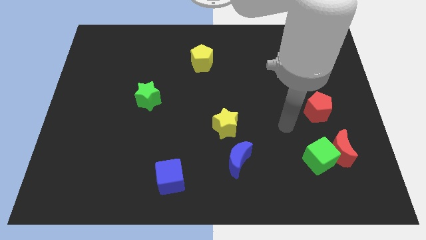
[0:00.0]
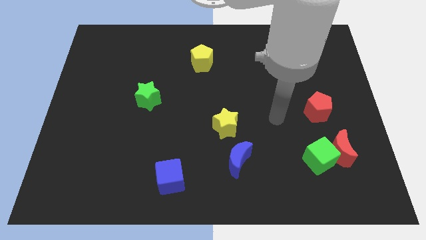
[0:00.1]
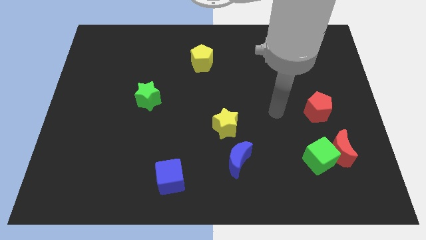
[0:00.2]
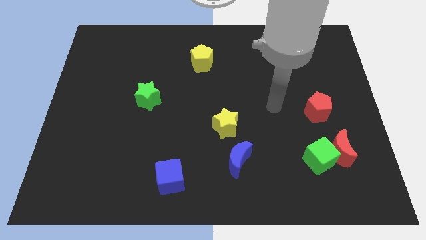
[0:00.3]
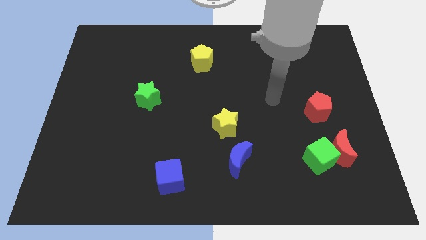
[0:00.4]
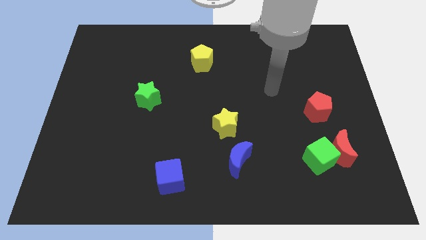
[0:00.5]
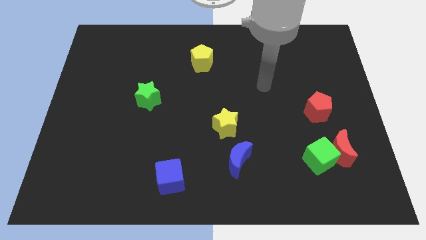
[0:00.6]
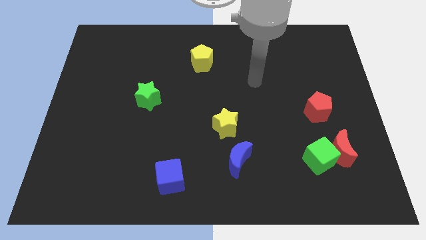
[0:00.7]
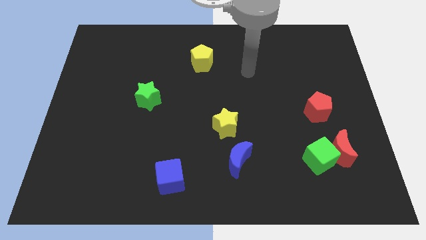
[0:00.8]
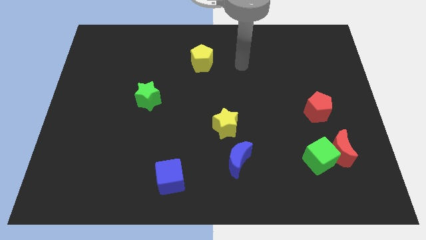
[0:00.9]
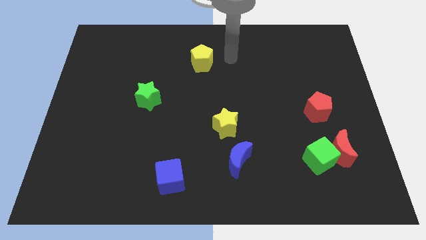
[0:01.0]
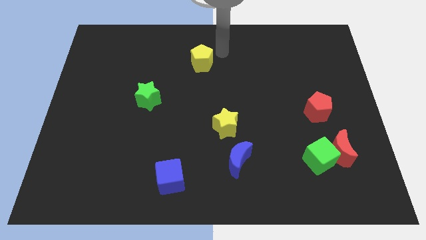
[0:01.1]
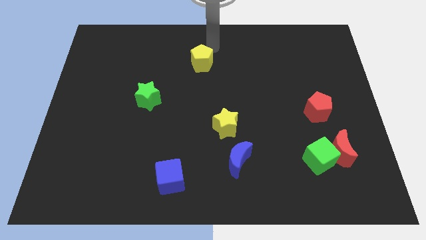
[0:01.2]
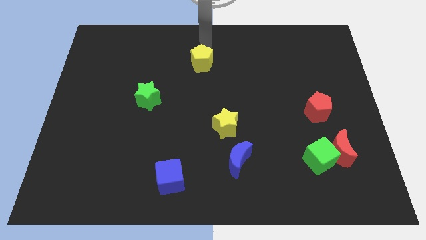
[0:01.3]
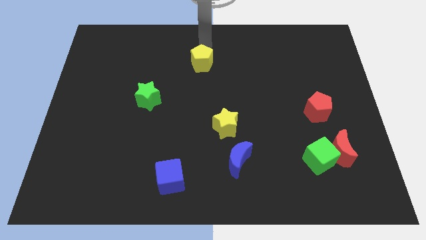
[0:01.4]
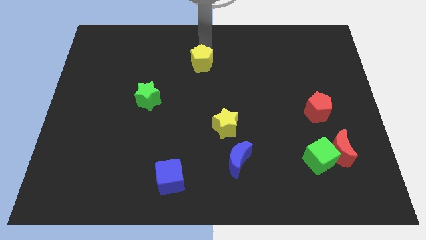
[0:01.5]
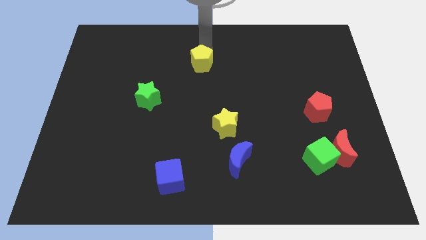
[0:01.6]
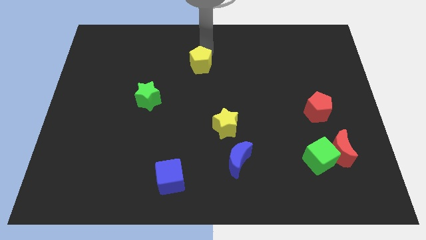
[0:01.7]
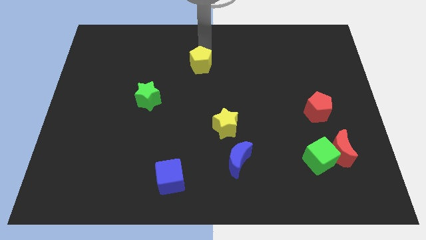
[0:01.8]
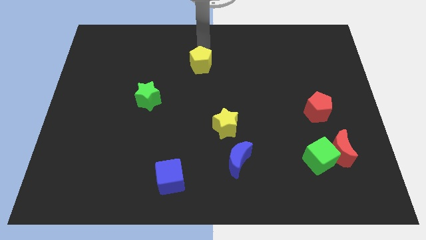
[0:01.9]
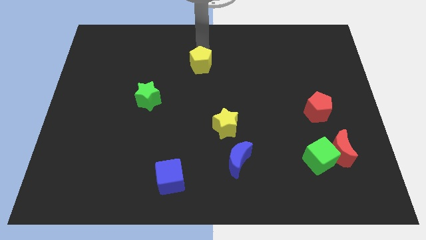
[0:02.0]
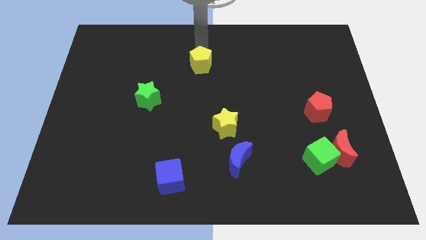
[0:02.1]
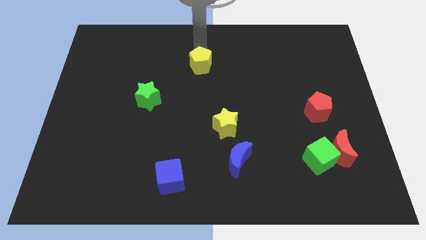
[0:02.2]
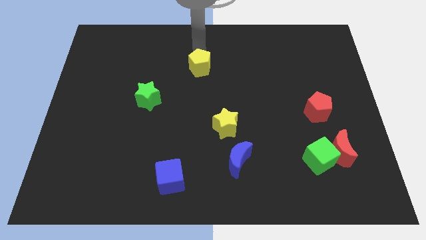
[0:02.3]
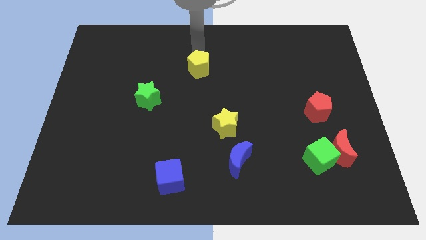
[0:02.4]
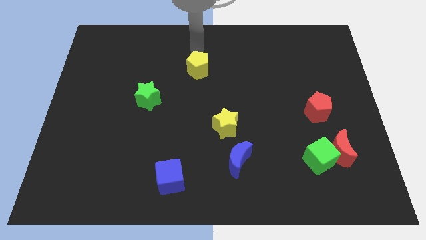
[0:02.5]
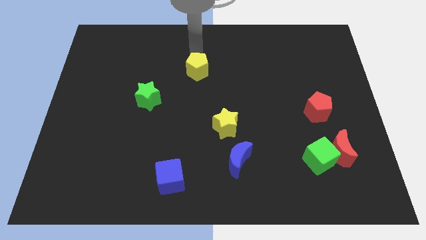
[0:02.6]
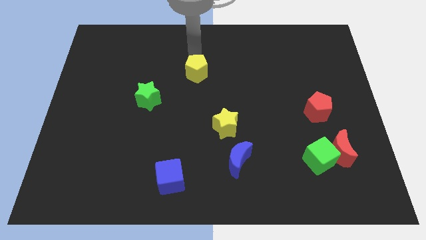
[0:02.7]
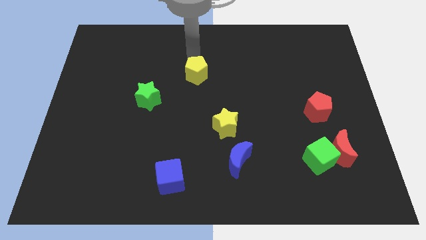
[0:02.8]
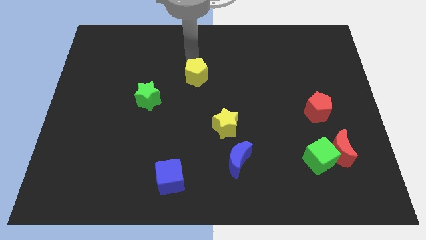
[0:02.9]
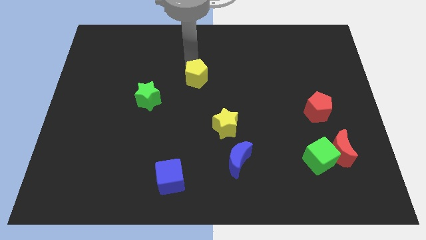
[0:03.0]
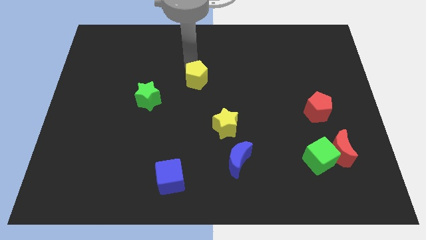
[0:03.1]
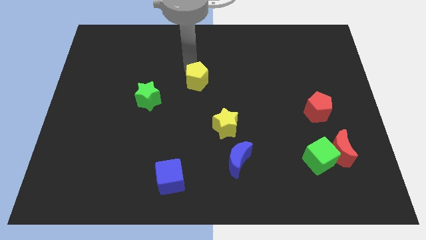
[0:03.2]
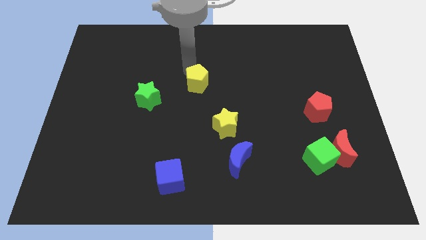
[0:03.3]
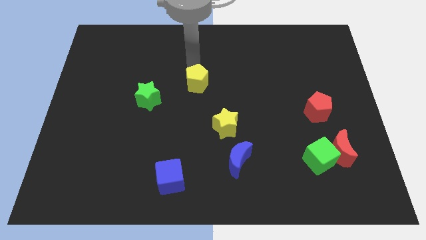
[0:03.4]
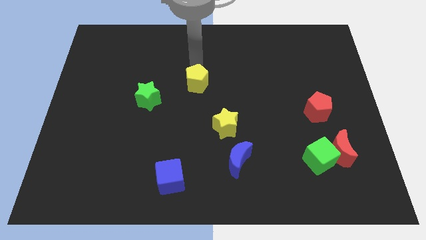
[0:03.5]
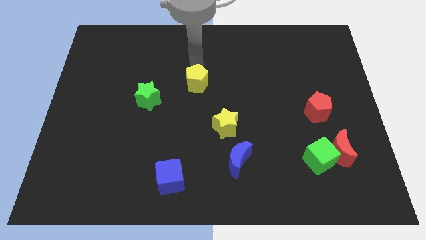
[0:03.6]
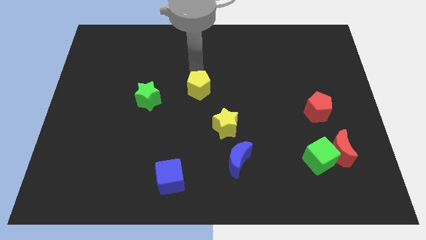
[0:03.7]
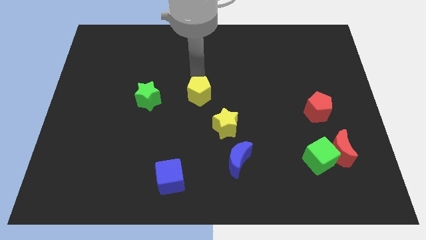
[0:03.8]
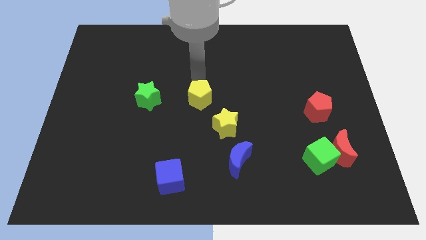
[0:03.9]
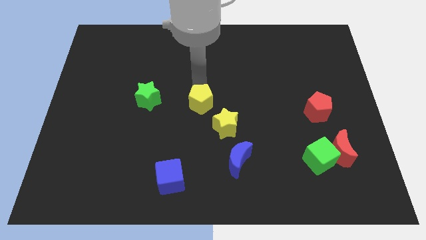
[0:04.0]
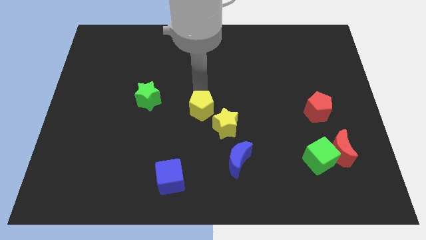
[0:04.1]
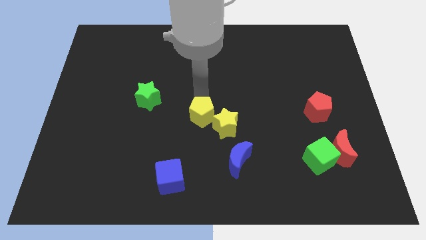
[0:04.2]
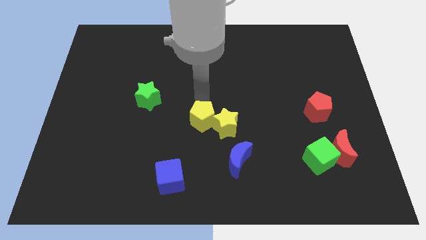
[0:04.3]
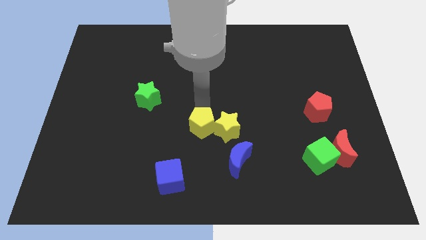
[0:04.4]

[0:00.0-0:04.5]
move the yellow pentagon downwards

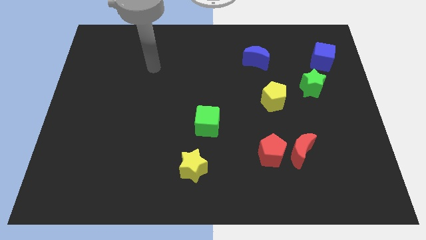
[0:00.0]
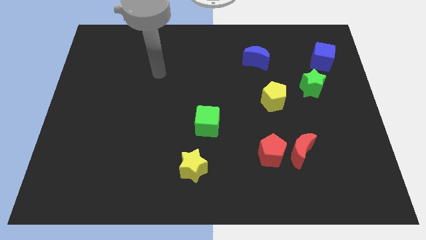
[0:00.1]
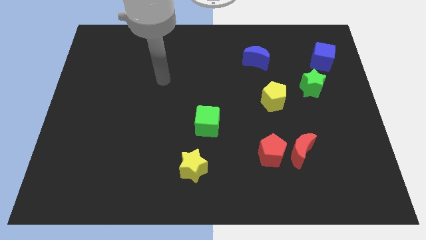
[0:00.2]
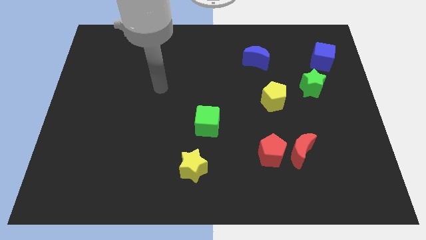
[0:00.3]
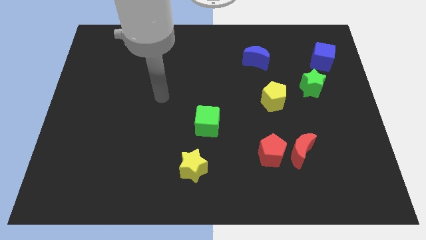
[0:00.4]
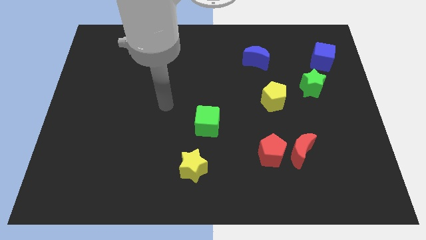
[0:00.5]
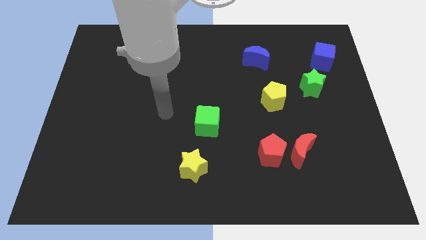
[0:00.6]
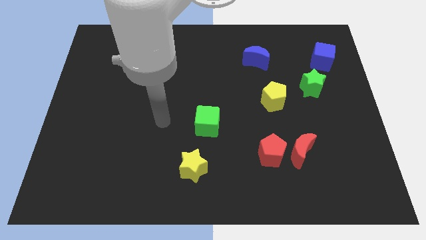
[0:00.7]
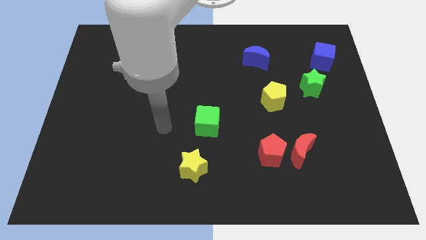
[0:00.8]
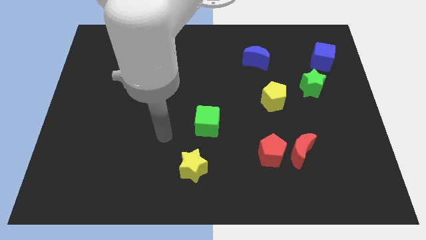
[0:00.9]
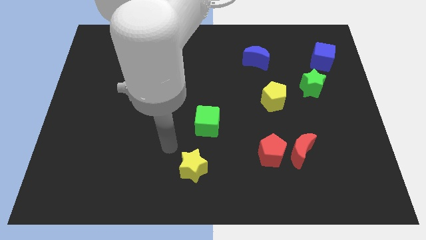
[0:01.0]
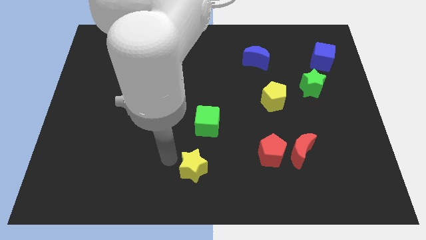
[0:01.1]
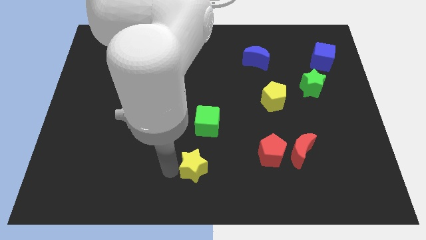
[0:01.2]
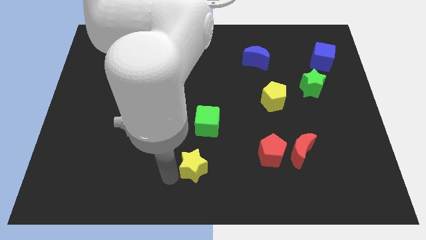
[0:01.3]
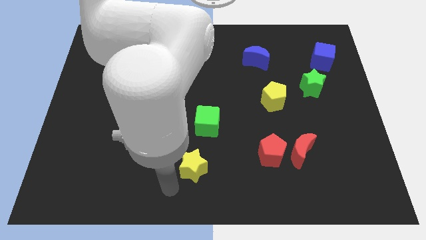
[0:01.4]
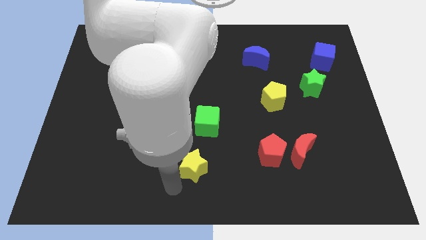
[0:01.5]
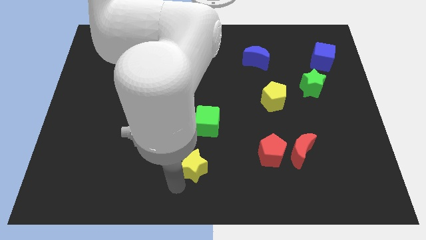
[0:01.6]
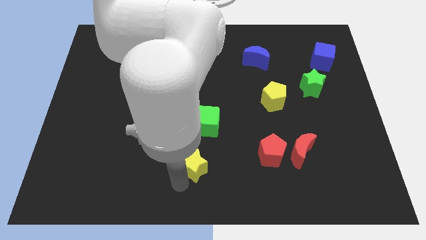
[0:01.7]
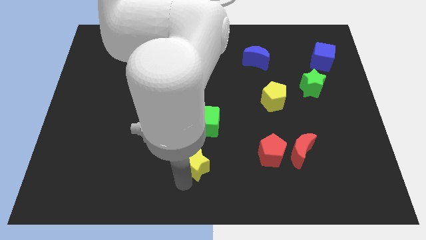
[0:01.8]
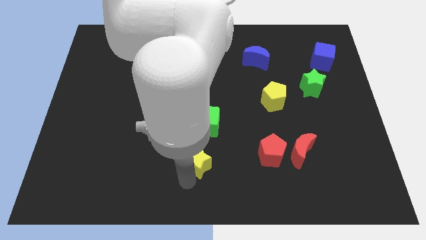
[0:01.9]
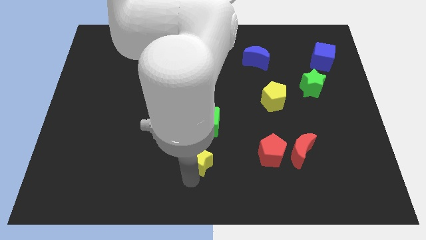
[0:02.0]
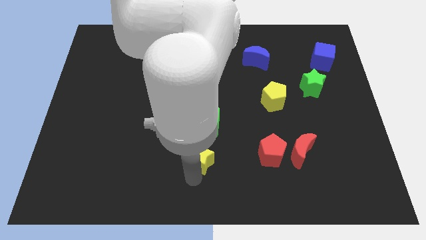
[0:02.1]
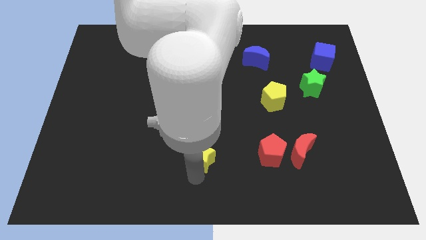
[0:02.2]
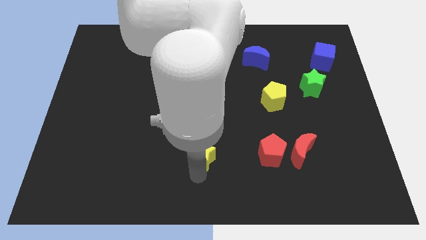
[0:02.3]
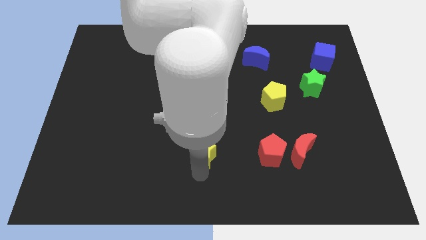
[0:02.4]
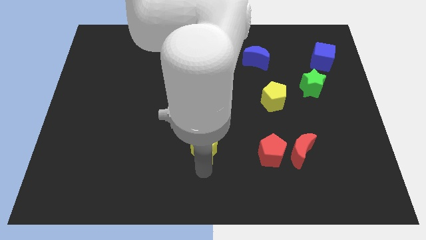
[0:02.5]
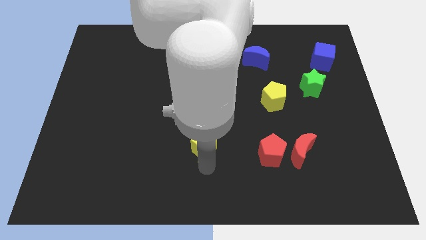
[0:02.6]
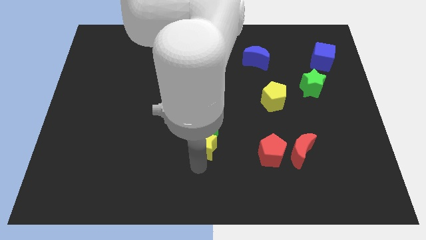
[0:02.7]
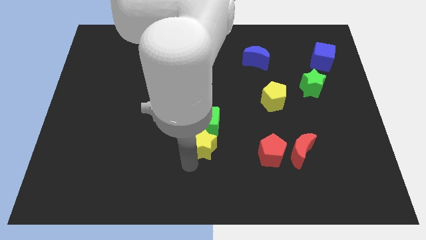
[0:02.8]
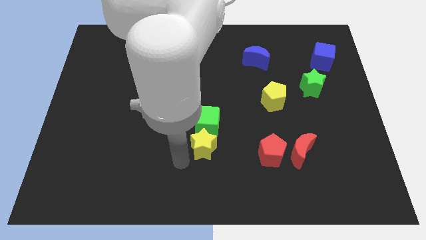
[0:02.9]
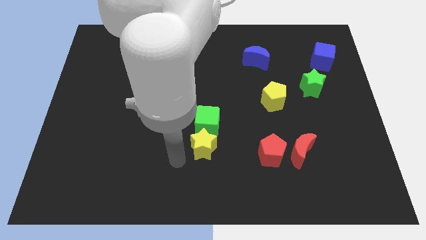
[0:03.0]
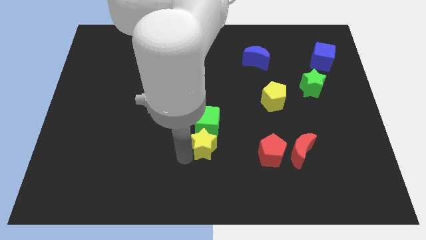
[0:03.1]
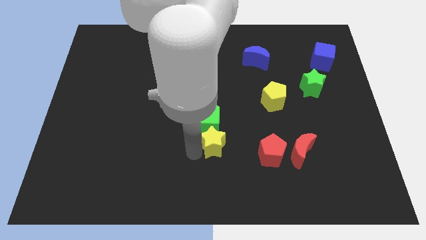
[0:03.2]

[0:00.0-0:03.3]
slide the yellow star slightly up and right
